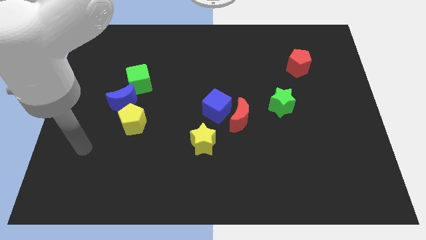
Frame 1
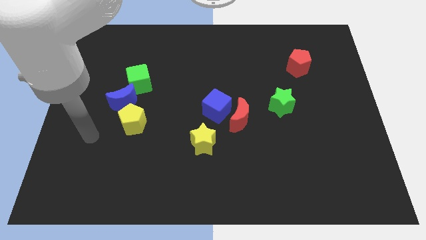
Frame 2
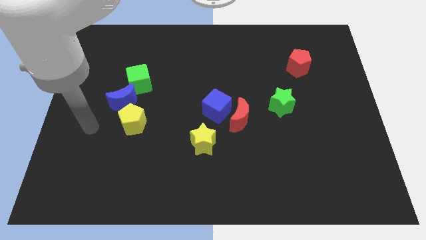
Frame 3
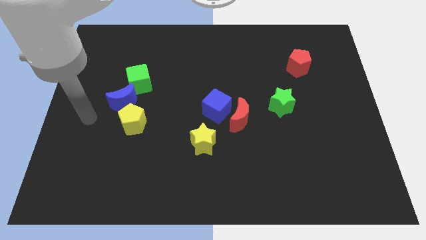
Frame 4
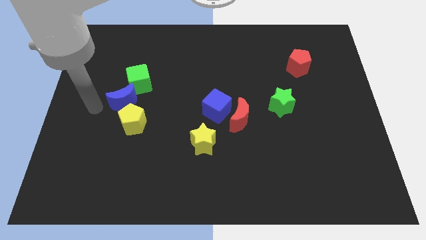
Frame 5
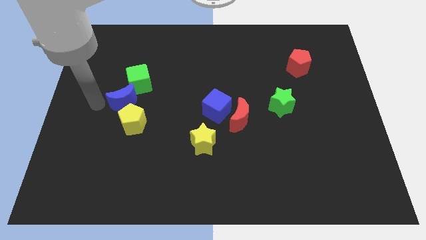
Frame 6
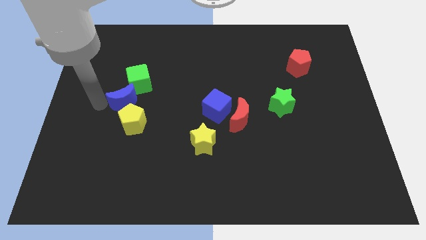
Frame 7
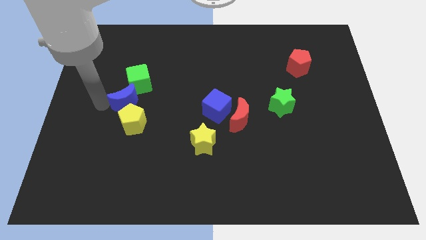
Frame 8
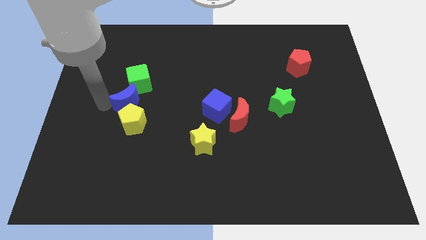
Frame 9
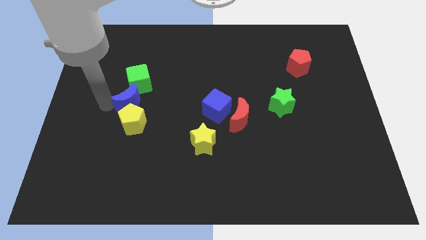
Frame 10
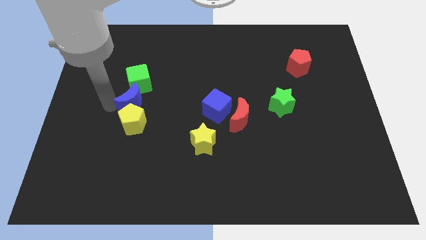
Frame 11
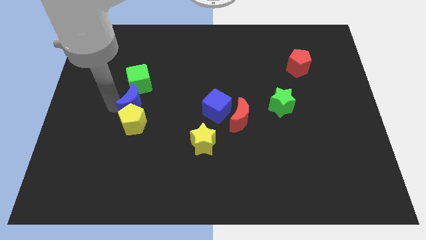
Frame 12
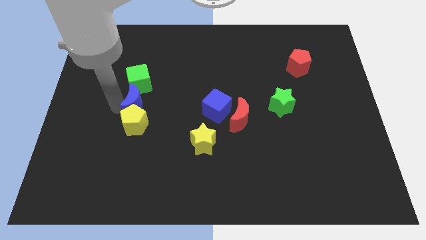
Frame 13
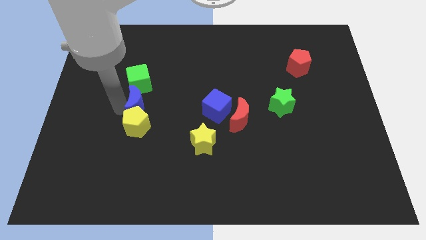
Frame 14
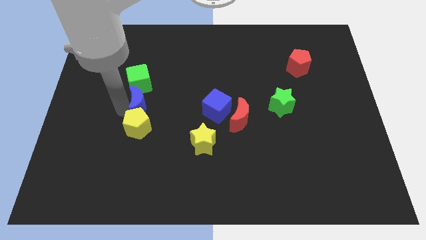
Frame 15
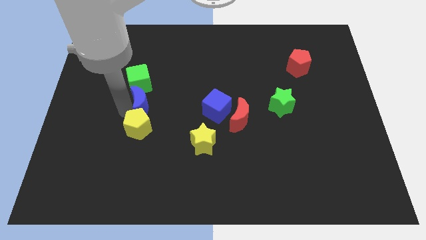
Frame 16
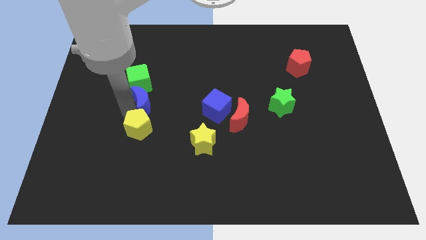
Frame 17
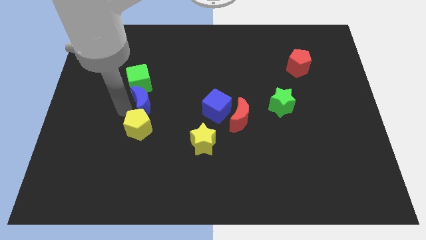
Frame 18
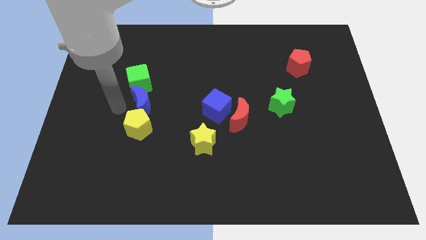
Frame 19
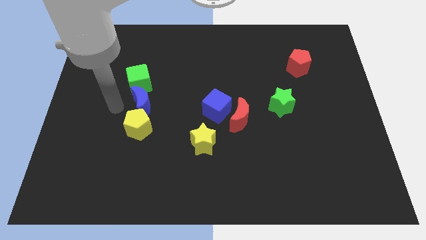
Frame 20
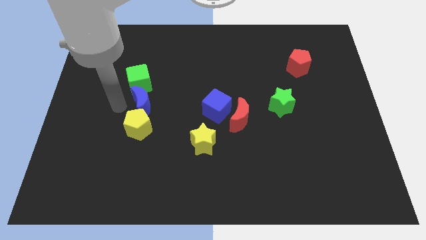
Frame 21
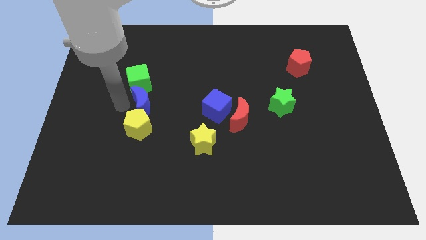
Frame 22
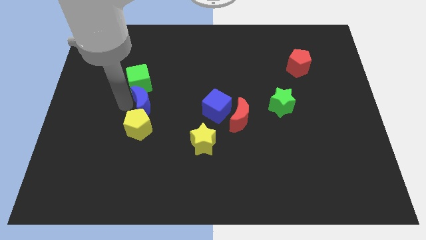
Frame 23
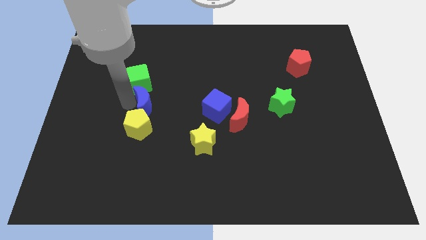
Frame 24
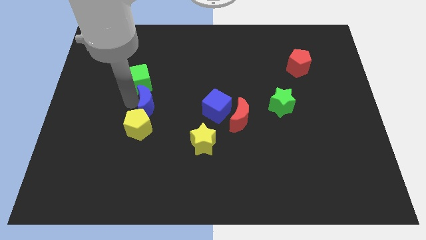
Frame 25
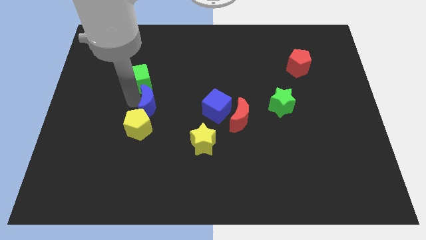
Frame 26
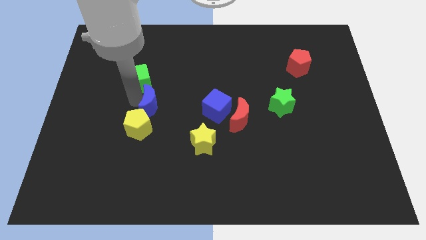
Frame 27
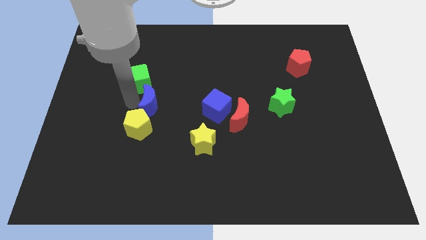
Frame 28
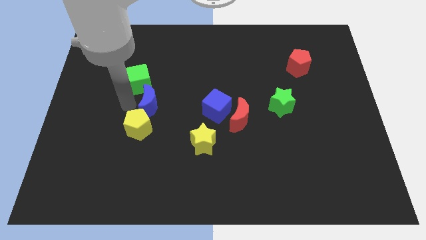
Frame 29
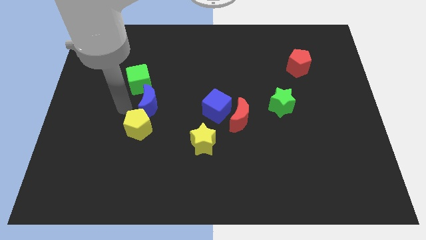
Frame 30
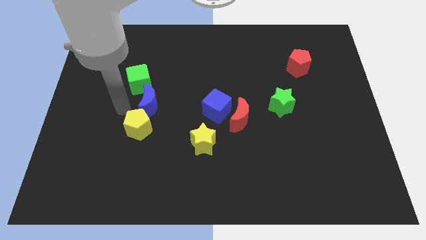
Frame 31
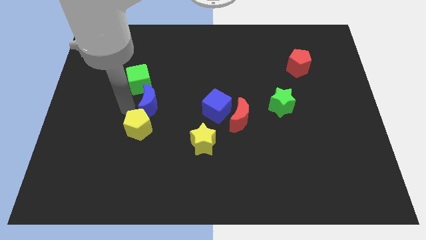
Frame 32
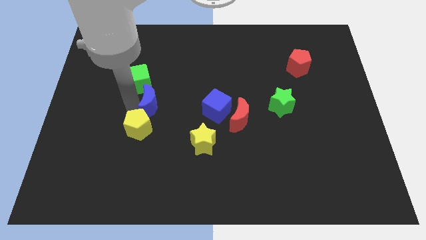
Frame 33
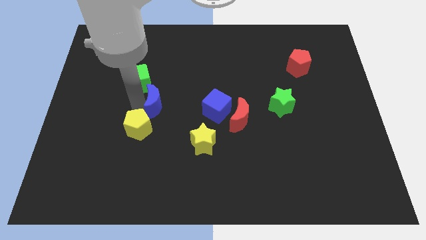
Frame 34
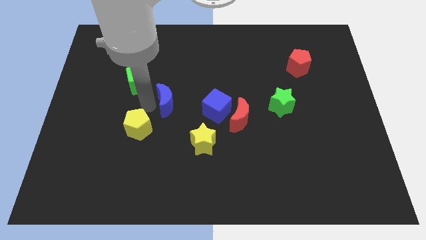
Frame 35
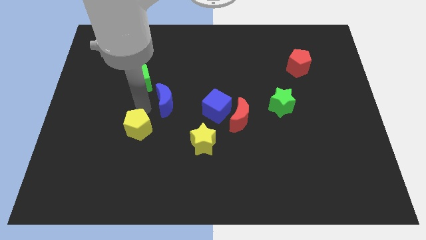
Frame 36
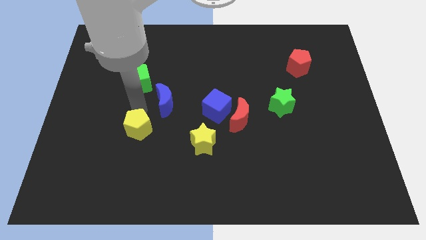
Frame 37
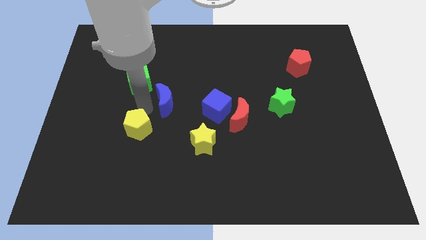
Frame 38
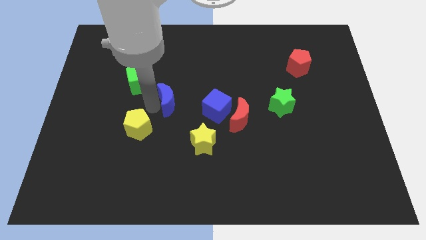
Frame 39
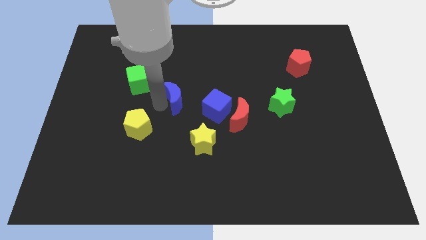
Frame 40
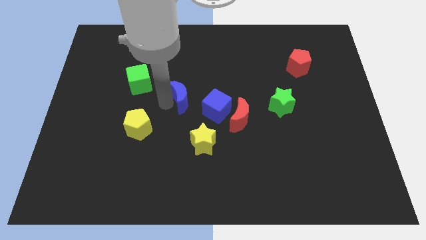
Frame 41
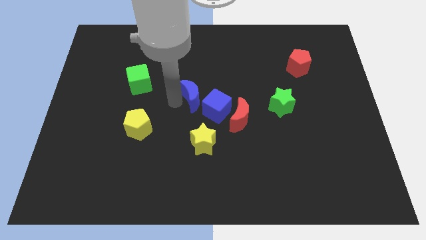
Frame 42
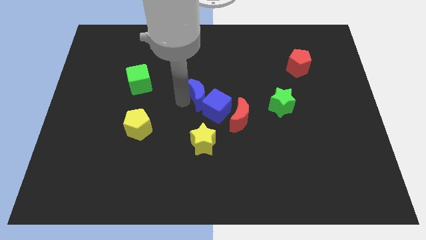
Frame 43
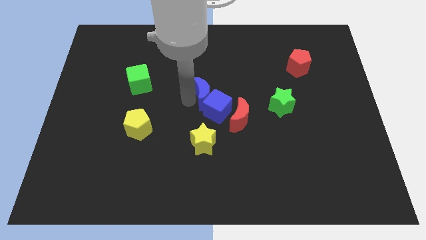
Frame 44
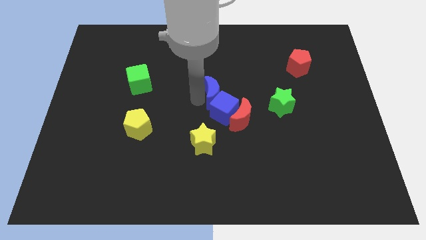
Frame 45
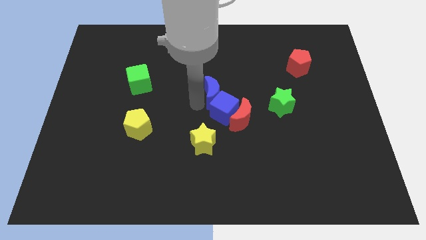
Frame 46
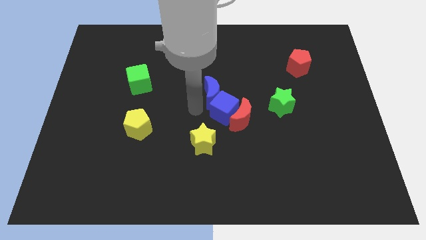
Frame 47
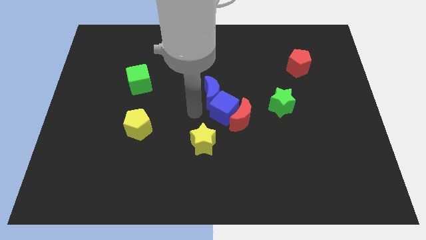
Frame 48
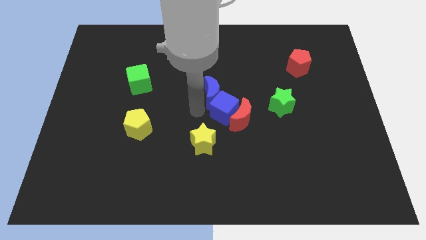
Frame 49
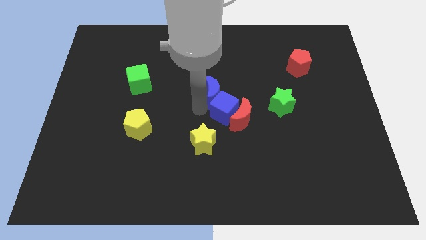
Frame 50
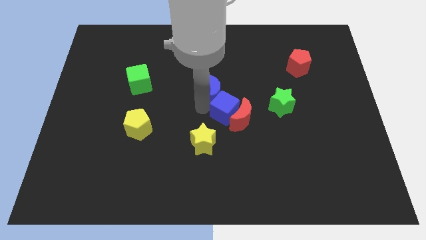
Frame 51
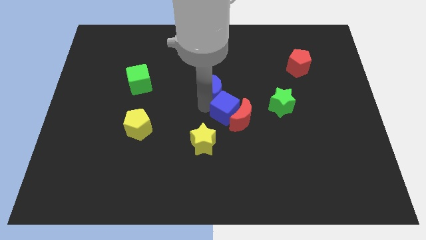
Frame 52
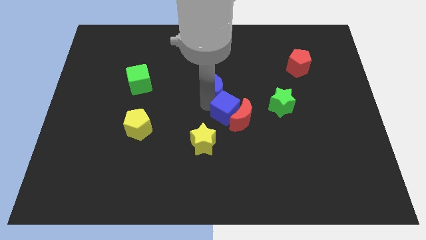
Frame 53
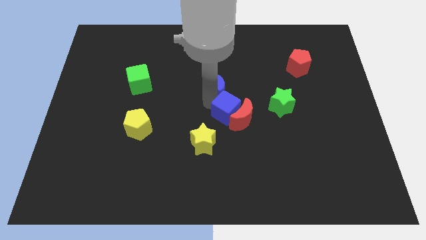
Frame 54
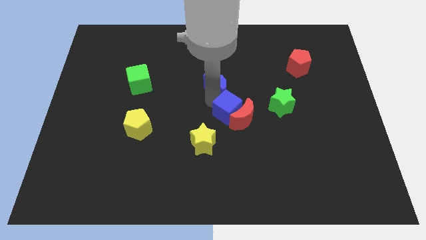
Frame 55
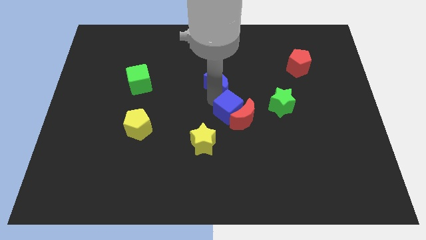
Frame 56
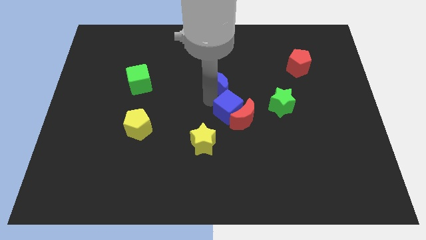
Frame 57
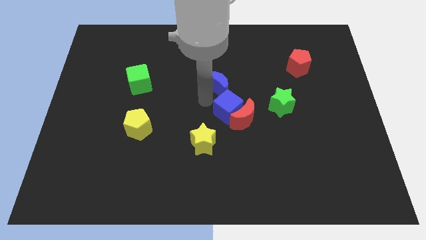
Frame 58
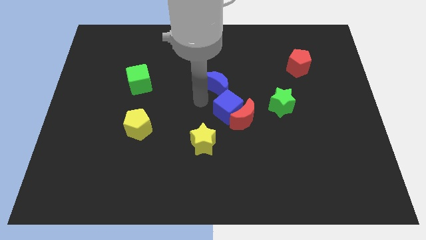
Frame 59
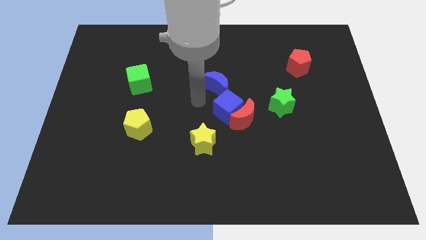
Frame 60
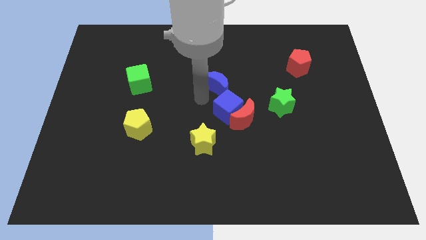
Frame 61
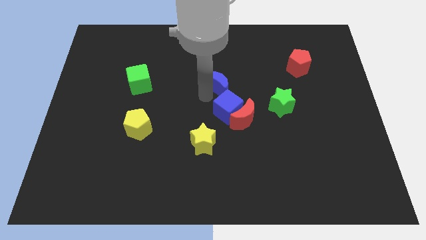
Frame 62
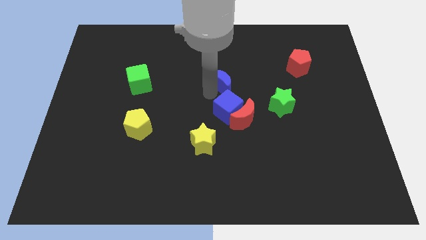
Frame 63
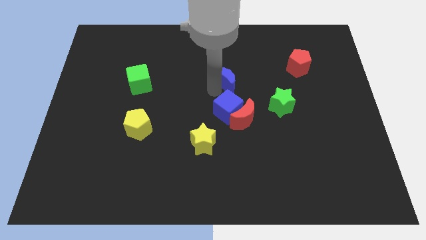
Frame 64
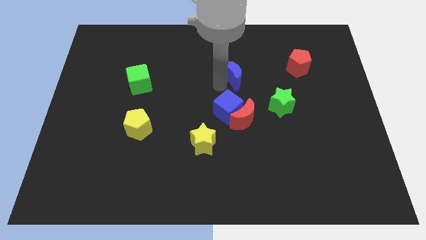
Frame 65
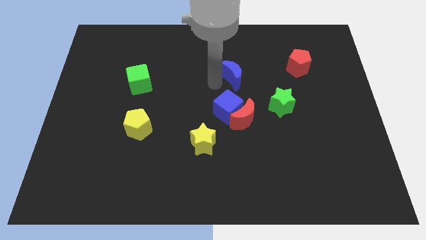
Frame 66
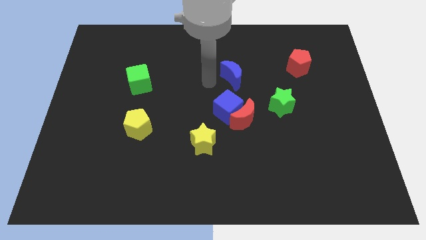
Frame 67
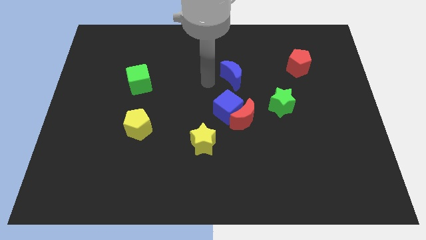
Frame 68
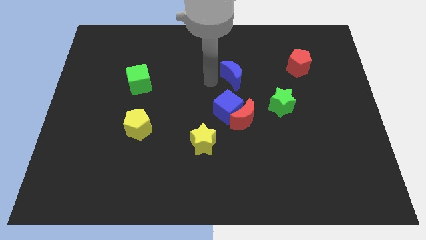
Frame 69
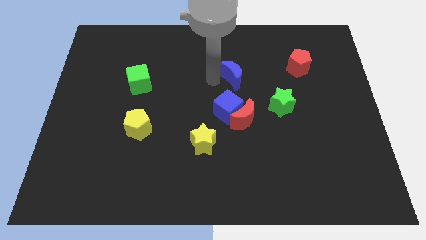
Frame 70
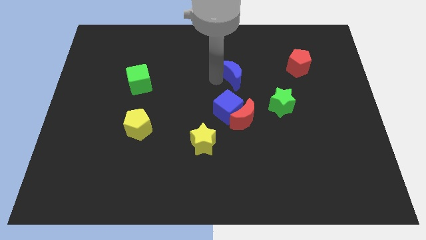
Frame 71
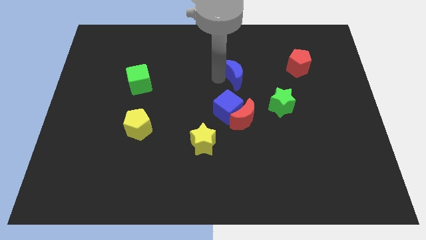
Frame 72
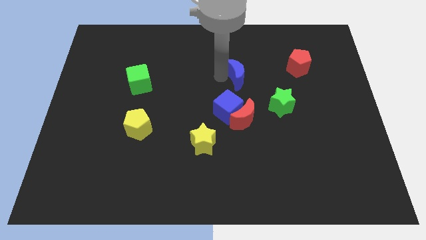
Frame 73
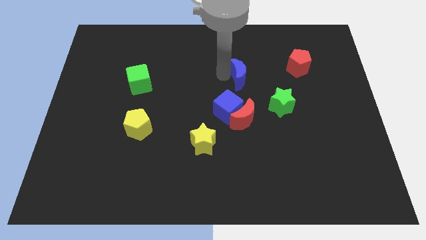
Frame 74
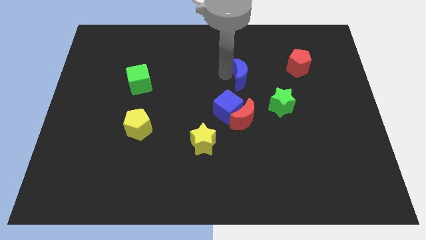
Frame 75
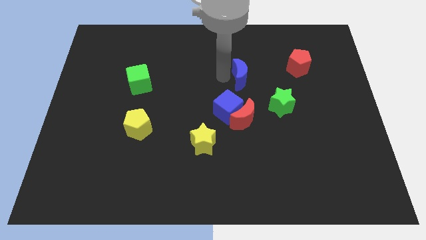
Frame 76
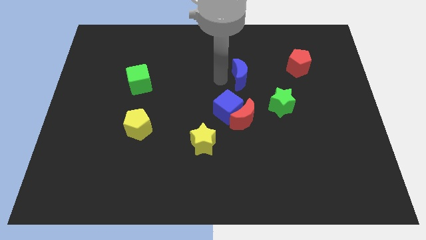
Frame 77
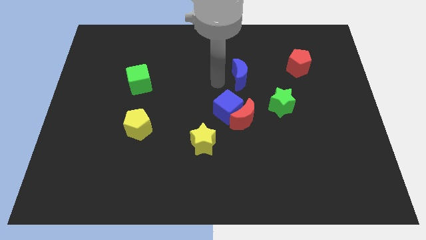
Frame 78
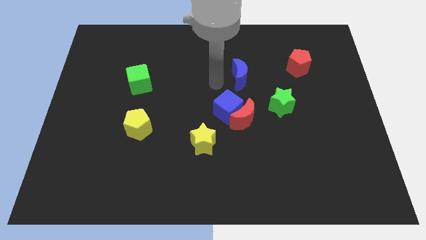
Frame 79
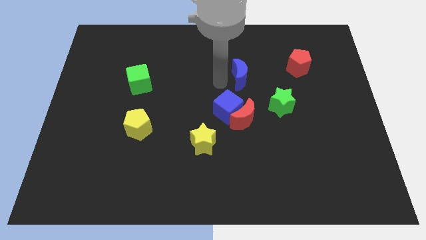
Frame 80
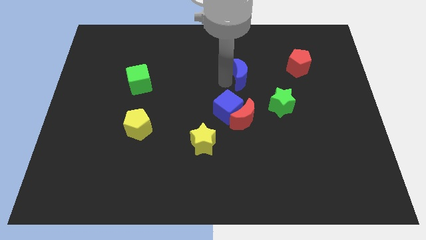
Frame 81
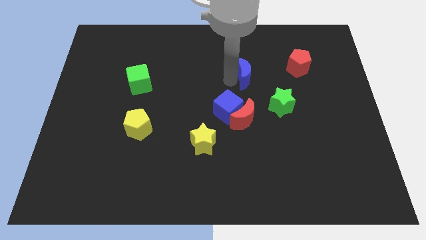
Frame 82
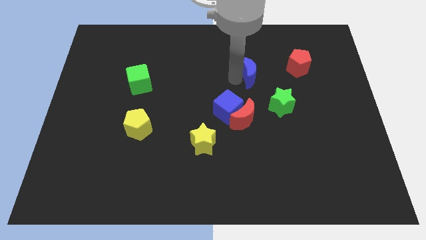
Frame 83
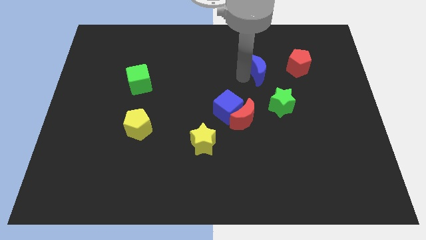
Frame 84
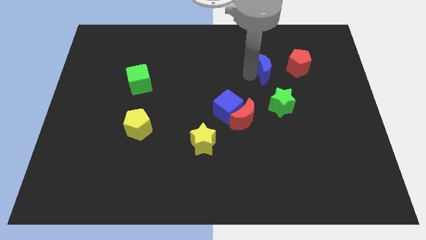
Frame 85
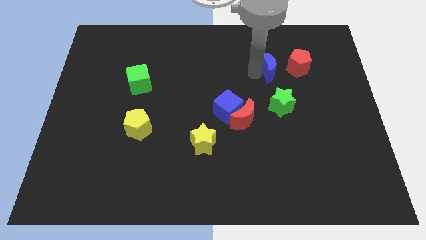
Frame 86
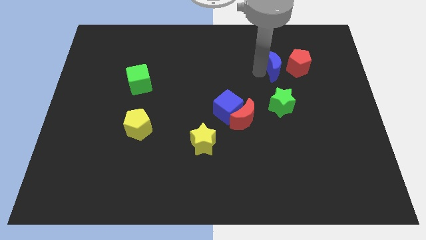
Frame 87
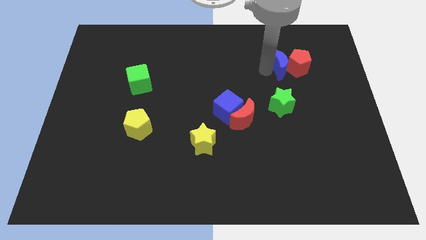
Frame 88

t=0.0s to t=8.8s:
put the blue moon close to the red pentagon

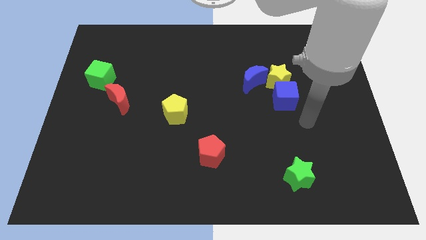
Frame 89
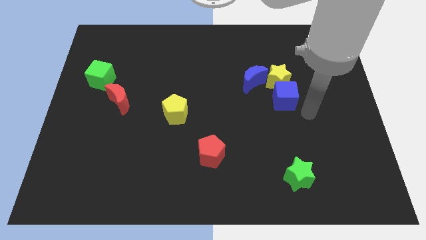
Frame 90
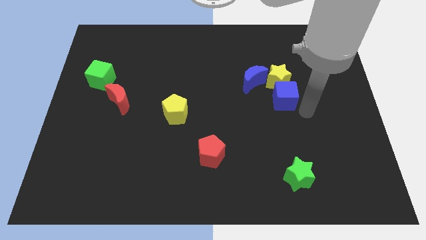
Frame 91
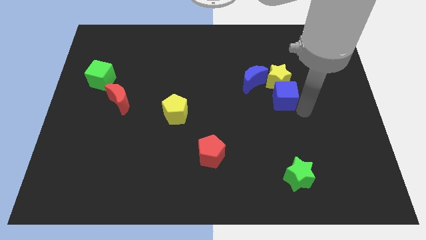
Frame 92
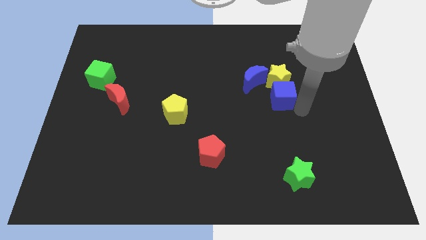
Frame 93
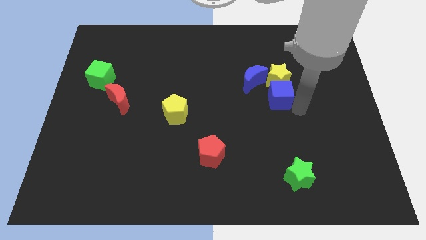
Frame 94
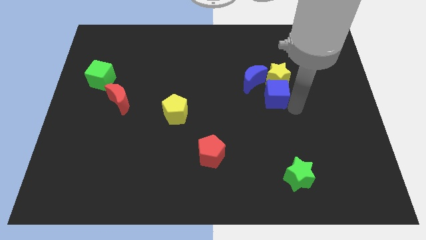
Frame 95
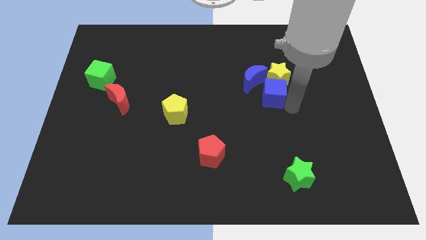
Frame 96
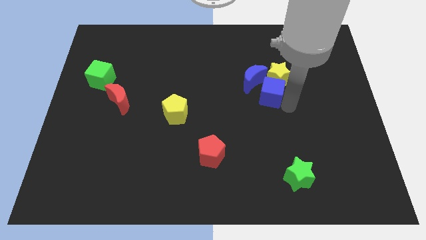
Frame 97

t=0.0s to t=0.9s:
put the blue cube close to the blue moon
